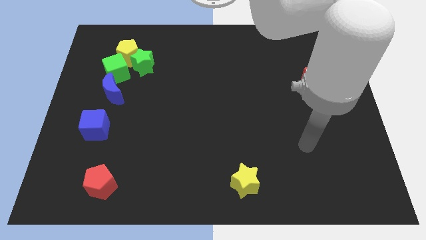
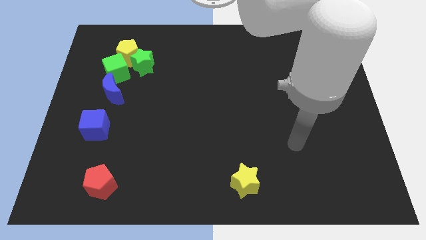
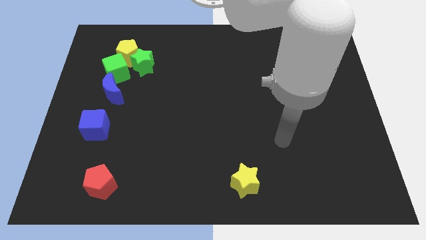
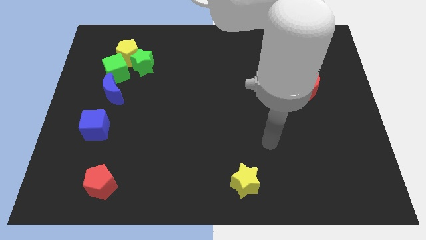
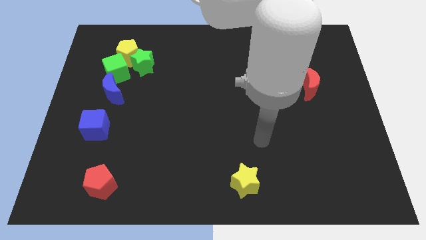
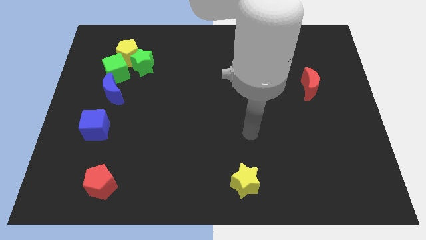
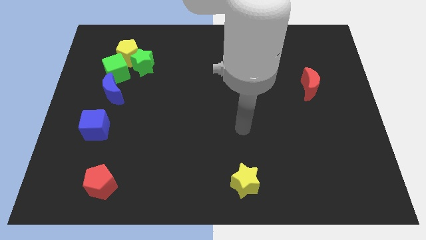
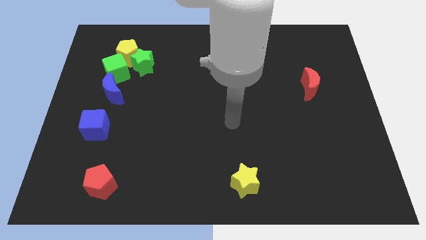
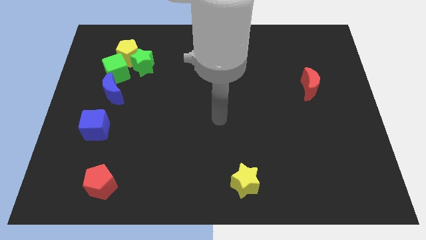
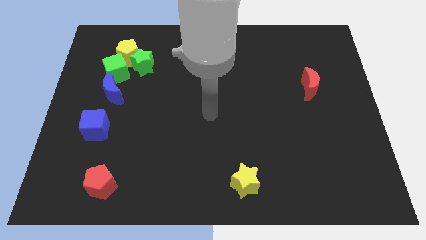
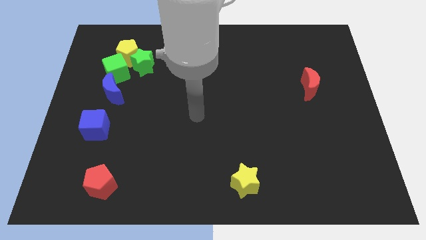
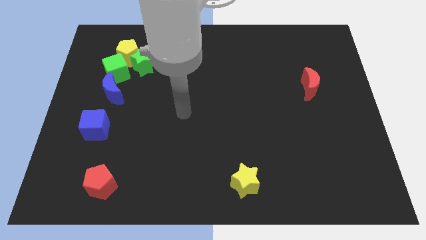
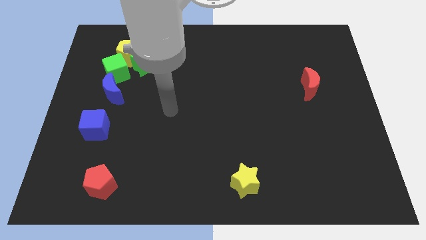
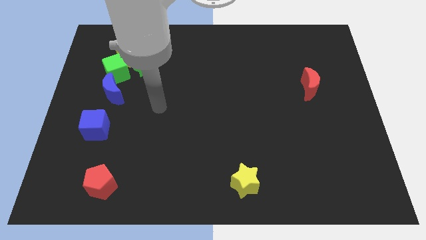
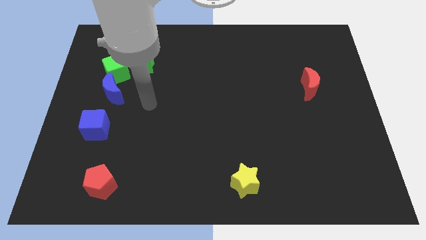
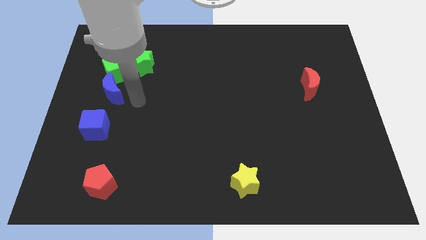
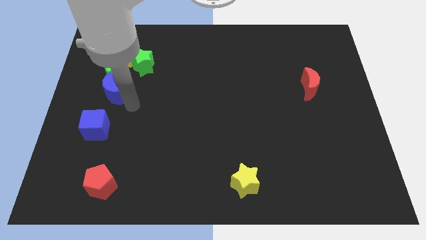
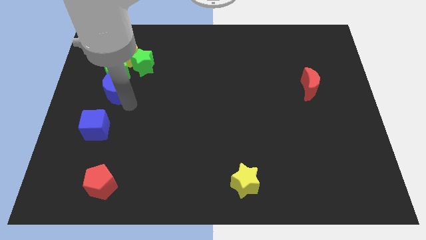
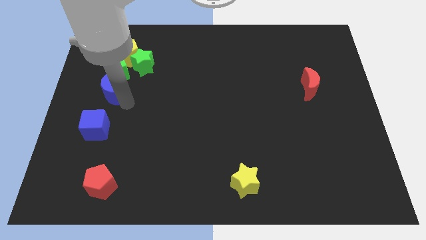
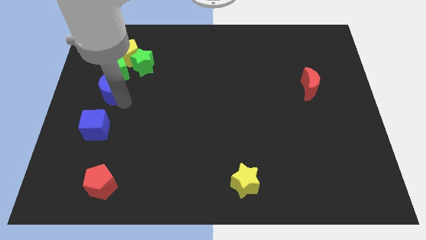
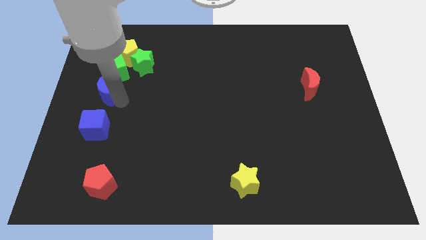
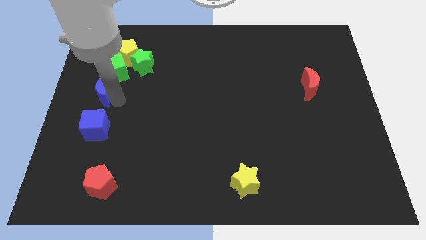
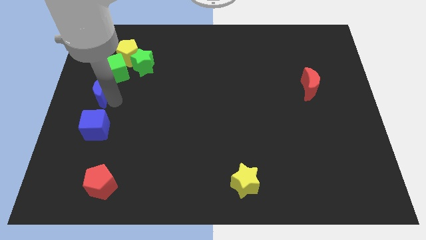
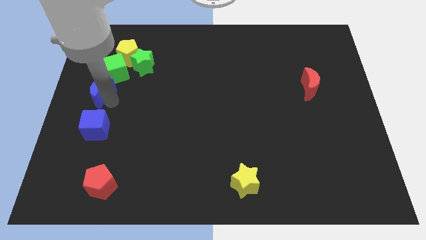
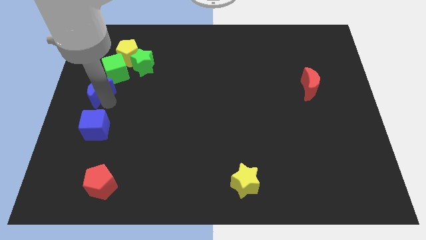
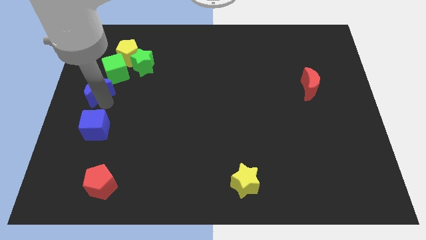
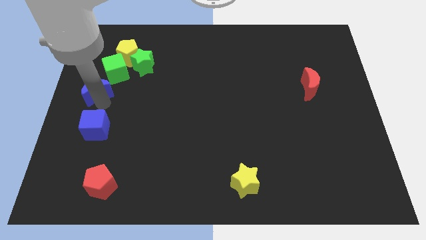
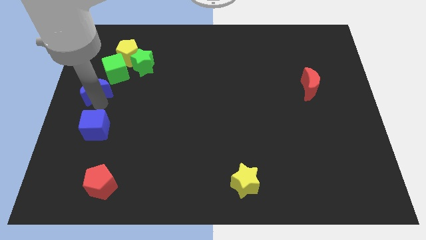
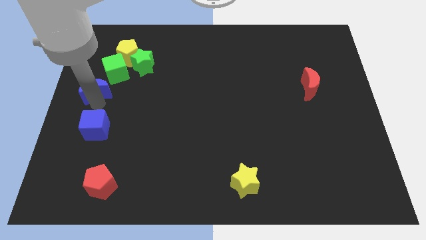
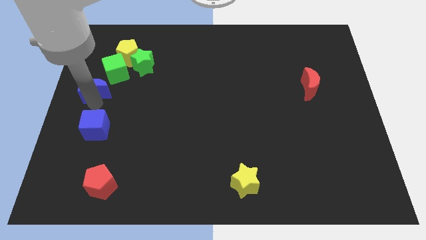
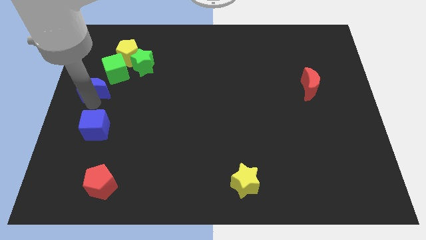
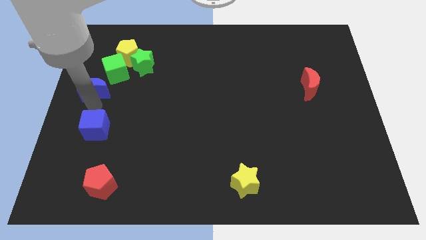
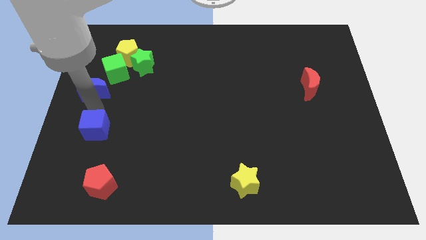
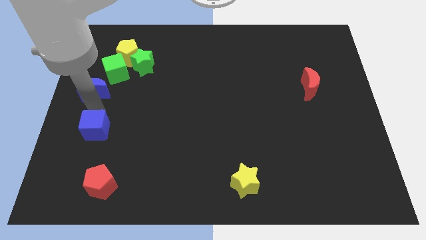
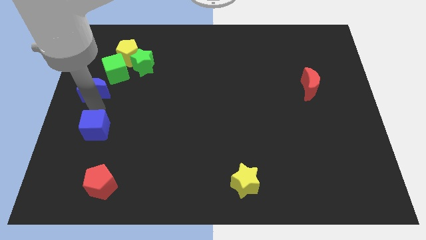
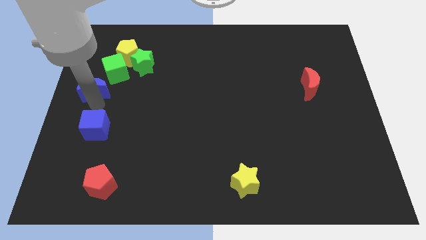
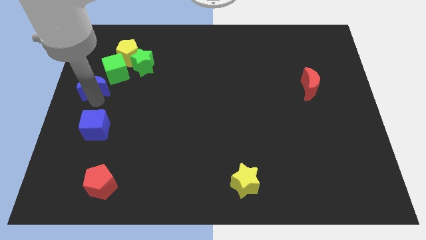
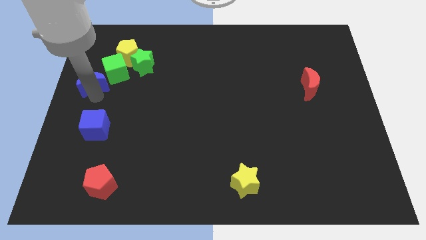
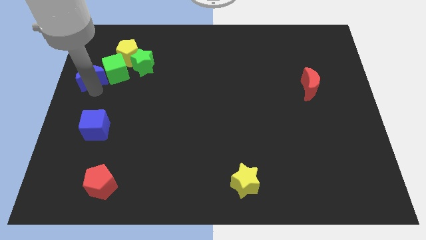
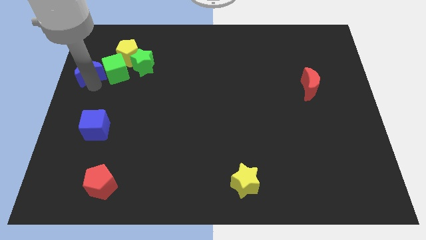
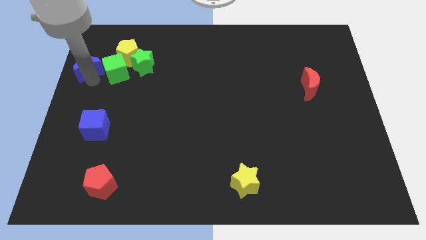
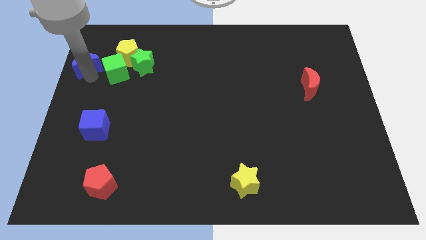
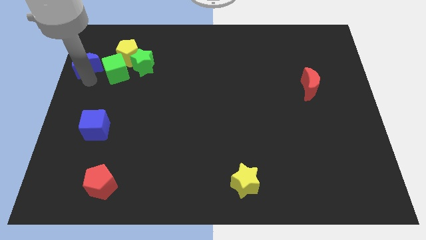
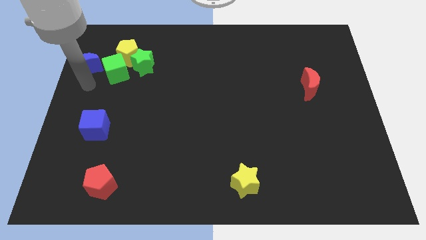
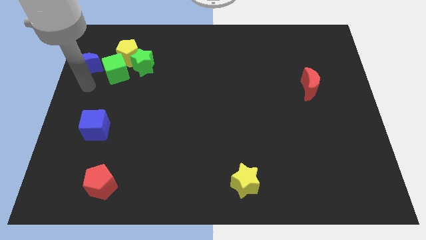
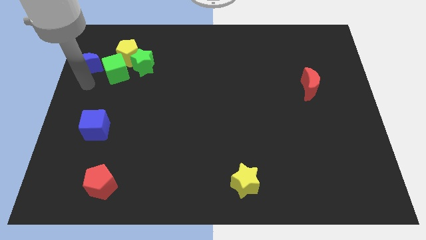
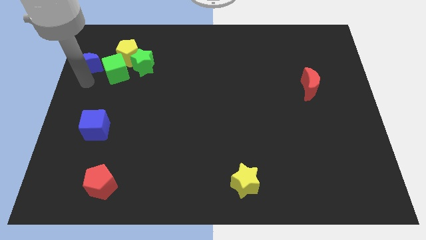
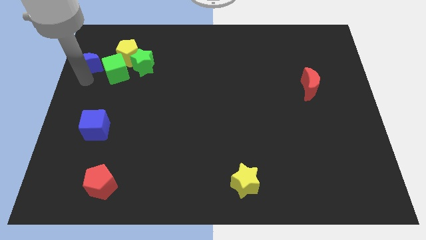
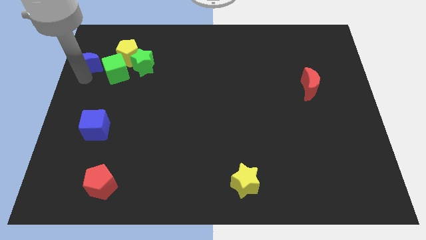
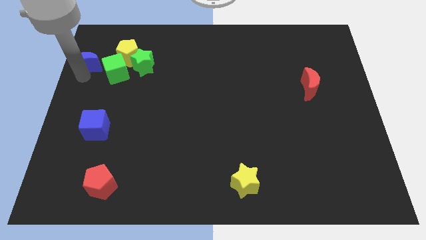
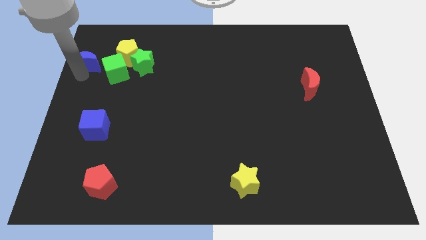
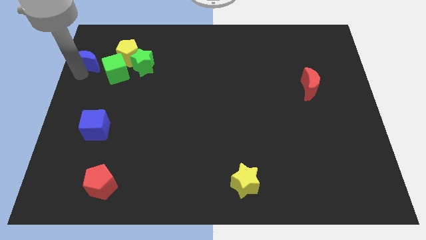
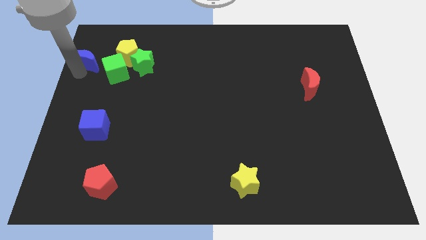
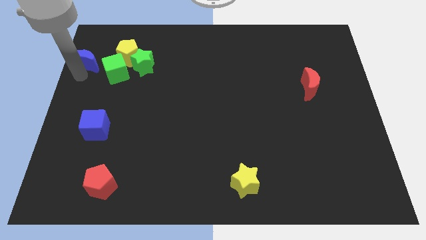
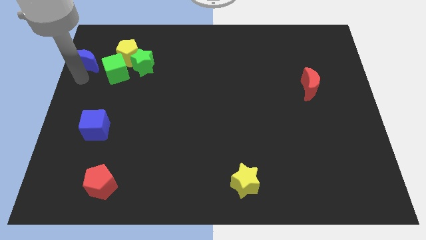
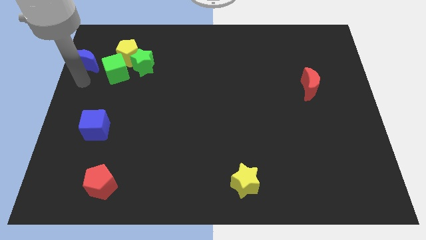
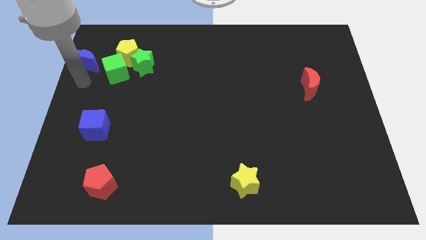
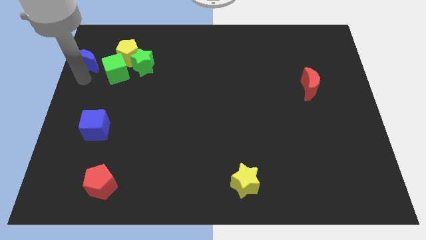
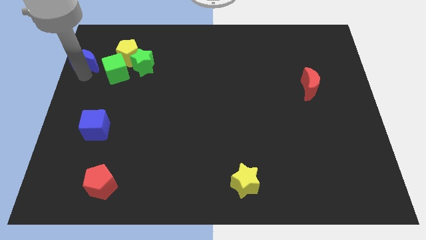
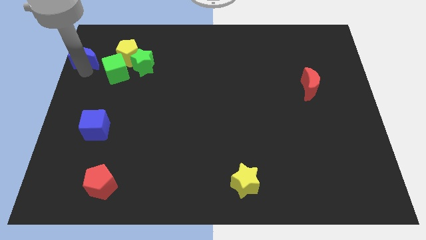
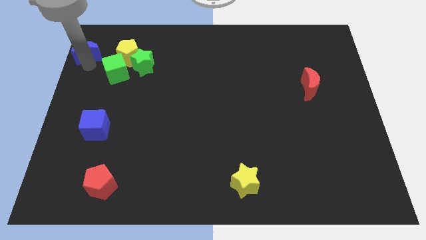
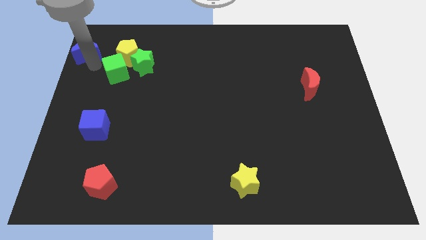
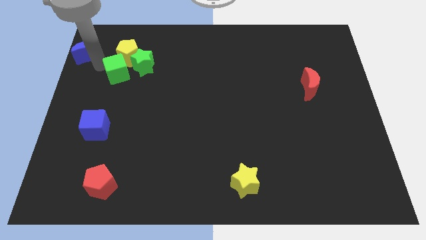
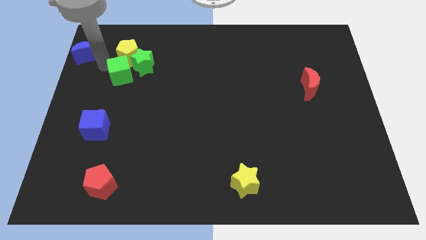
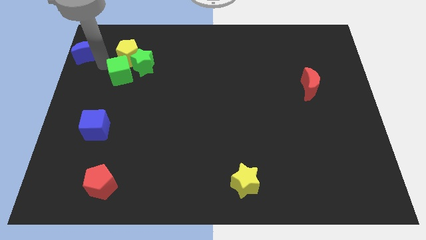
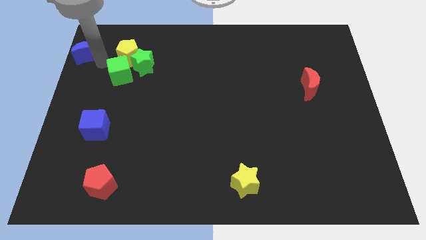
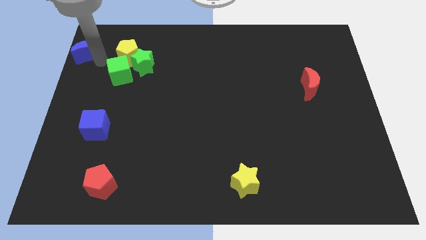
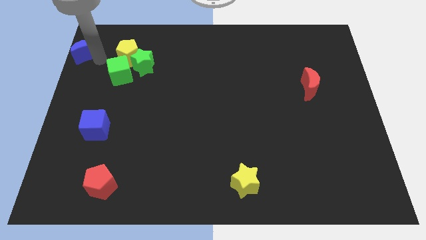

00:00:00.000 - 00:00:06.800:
move the blue moon to the top left corner
